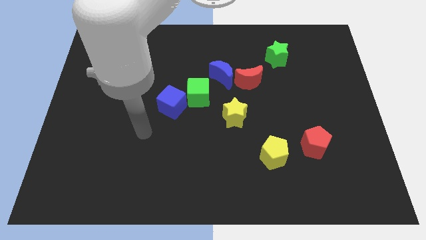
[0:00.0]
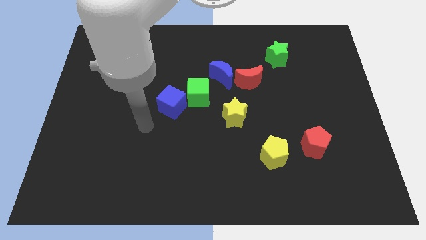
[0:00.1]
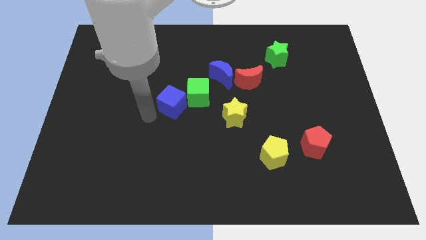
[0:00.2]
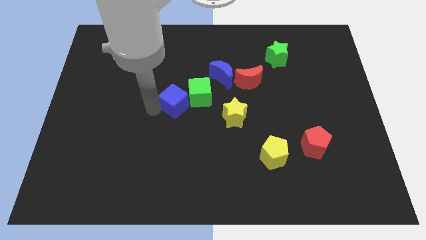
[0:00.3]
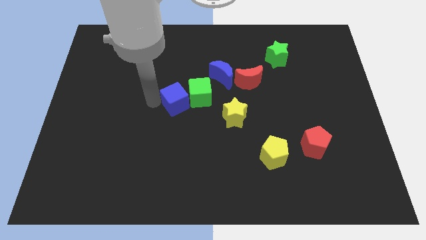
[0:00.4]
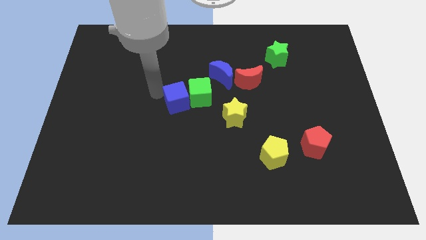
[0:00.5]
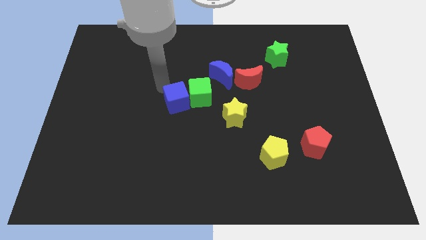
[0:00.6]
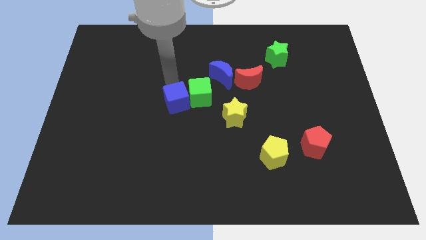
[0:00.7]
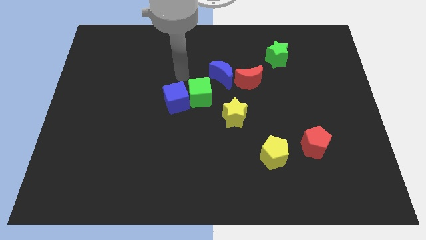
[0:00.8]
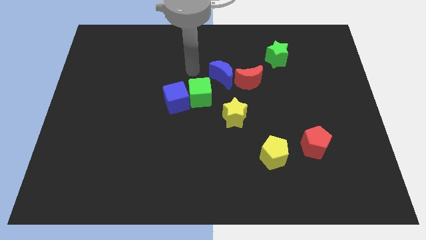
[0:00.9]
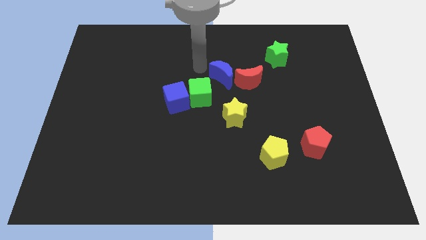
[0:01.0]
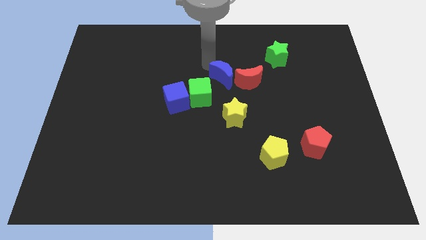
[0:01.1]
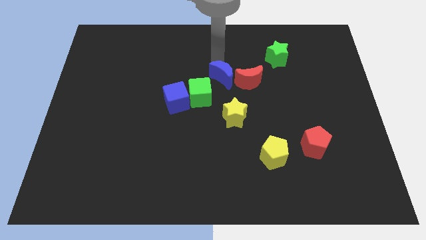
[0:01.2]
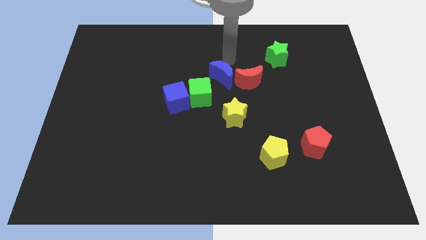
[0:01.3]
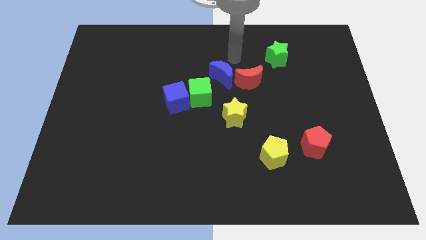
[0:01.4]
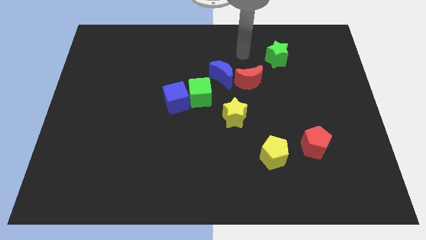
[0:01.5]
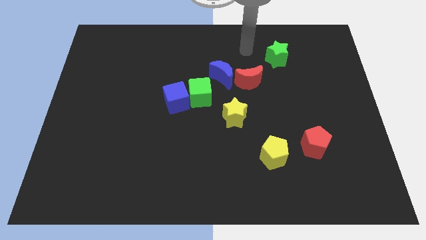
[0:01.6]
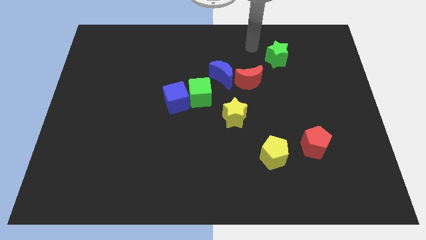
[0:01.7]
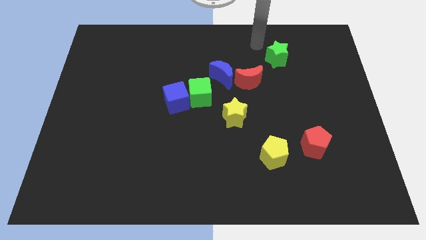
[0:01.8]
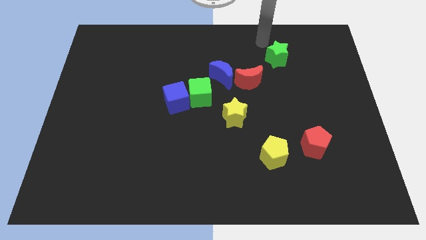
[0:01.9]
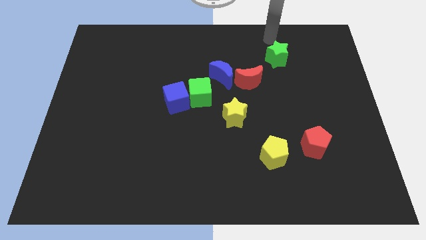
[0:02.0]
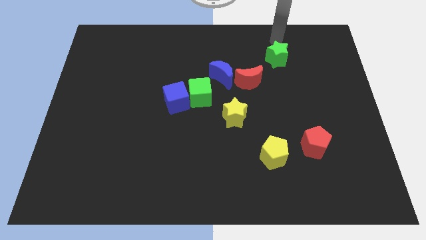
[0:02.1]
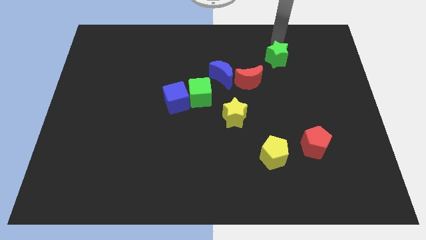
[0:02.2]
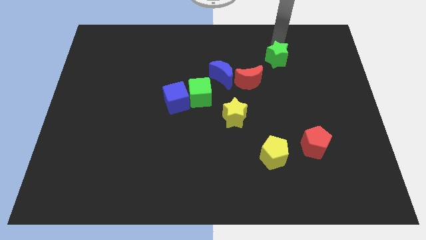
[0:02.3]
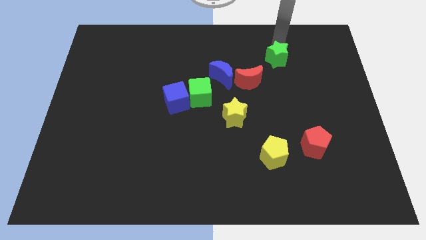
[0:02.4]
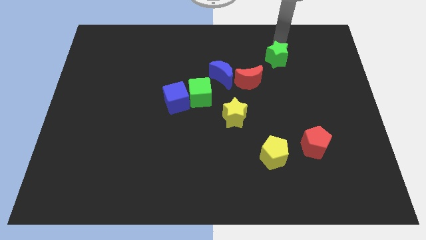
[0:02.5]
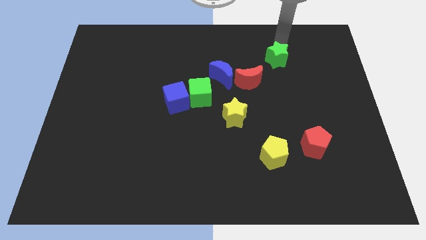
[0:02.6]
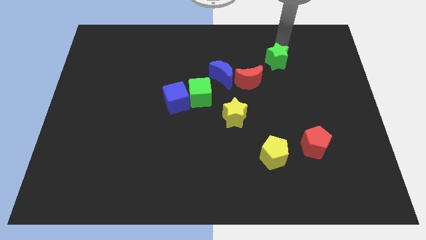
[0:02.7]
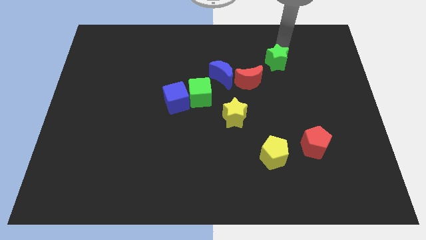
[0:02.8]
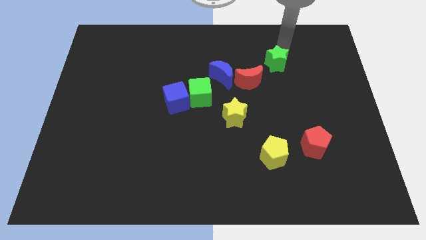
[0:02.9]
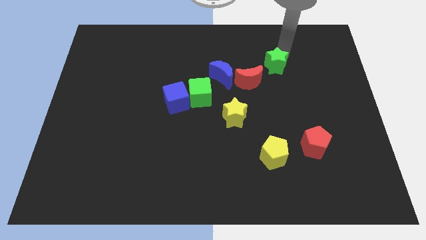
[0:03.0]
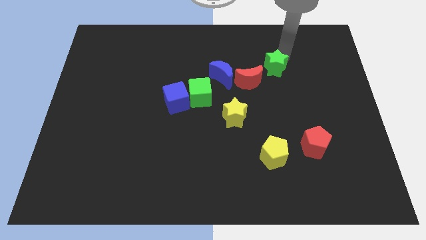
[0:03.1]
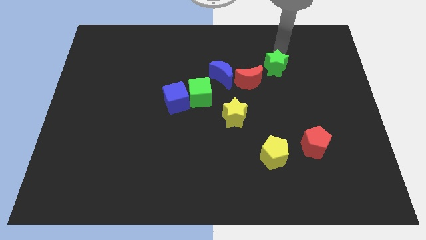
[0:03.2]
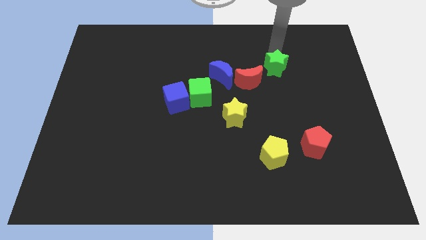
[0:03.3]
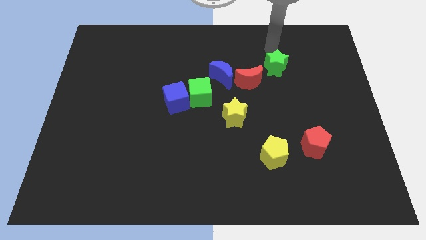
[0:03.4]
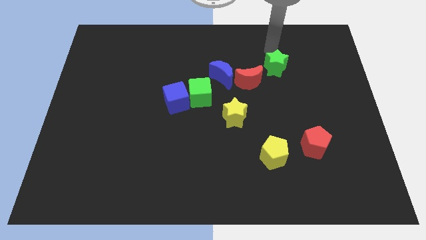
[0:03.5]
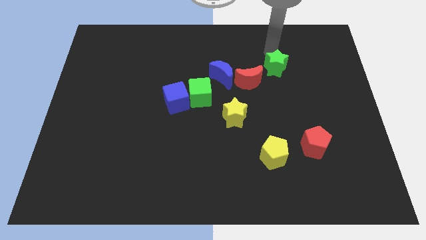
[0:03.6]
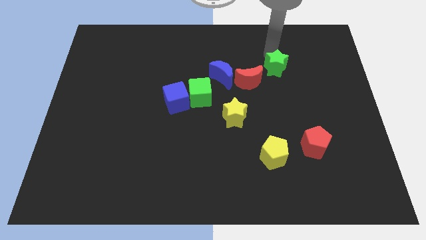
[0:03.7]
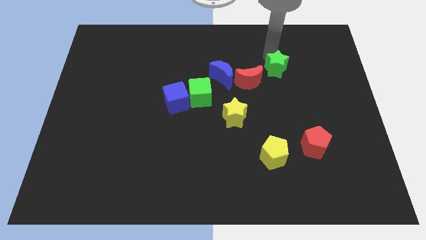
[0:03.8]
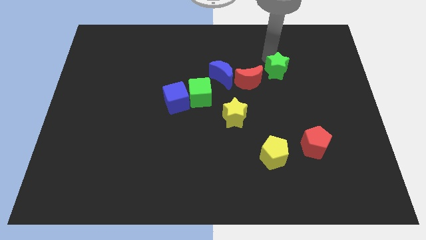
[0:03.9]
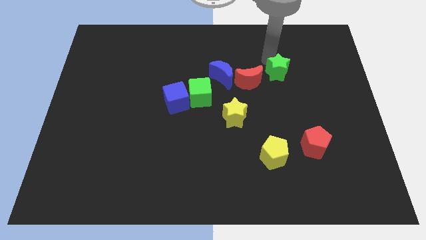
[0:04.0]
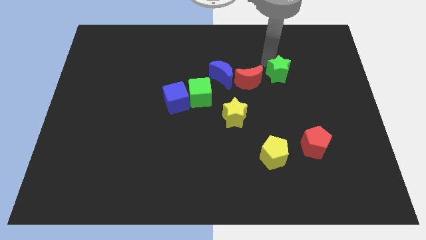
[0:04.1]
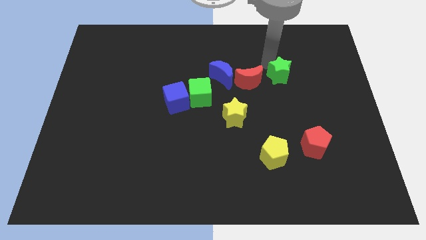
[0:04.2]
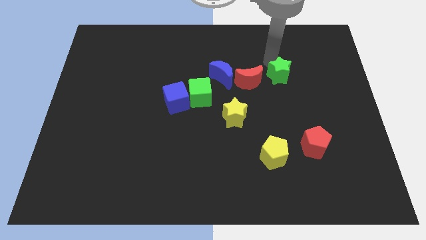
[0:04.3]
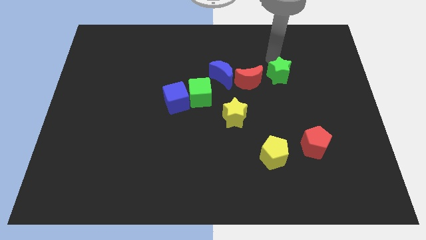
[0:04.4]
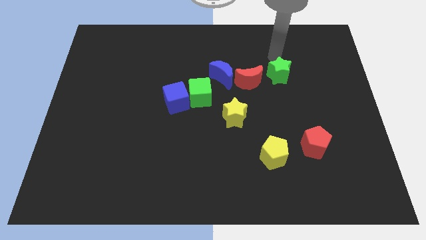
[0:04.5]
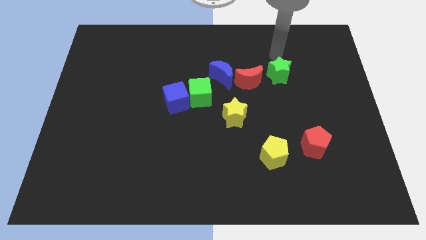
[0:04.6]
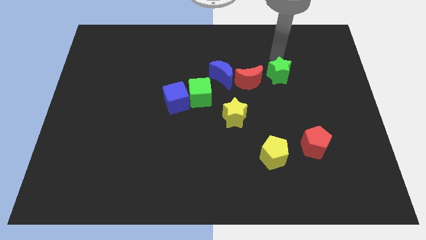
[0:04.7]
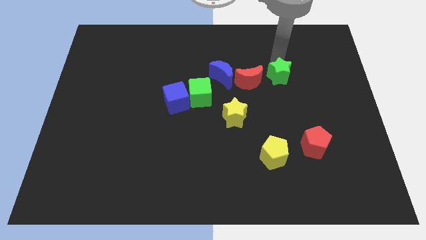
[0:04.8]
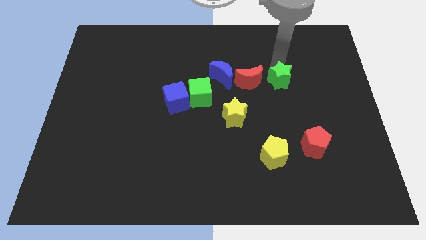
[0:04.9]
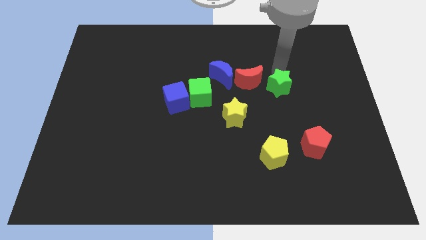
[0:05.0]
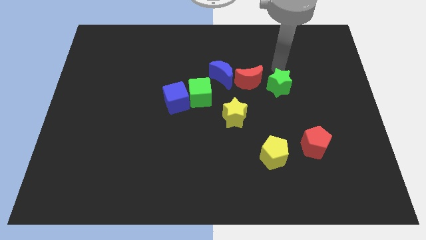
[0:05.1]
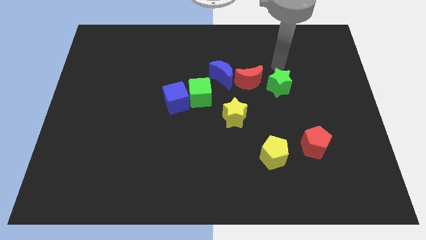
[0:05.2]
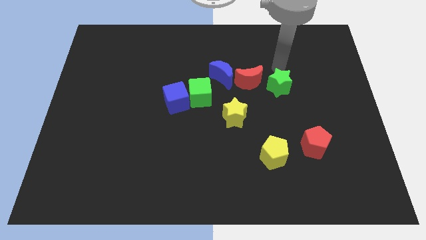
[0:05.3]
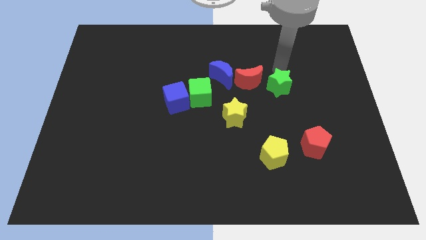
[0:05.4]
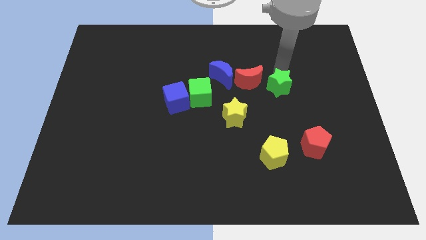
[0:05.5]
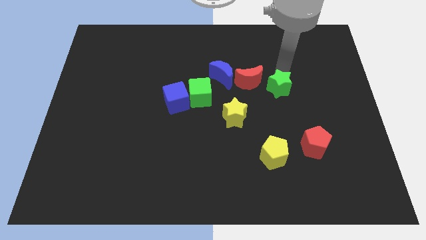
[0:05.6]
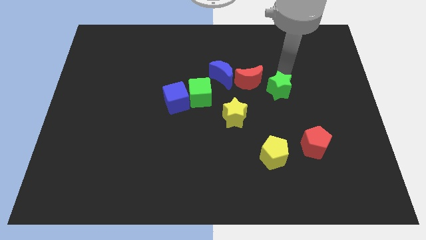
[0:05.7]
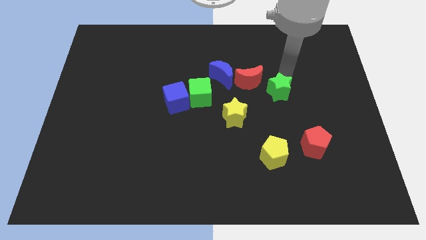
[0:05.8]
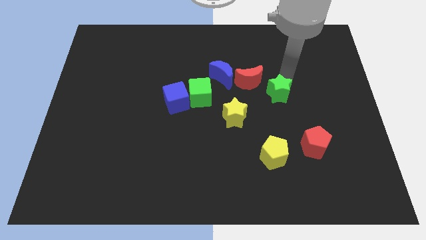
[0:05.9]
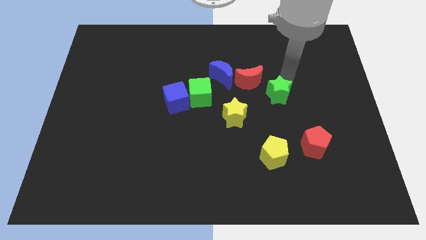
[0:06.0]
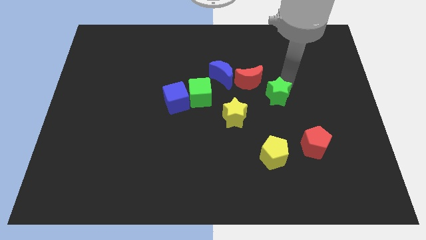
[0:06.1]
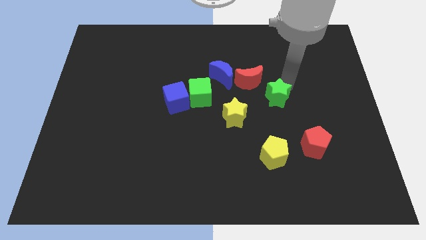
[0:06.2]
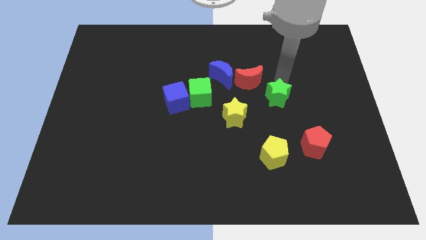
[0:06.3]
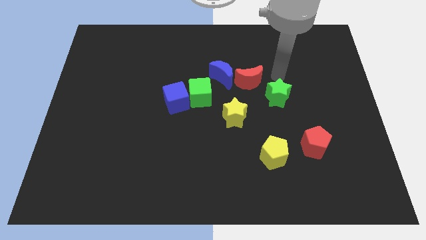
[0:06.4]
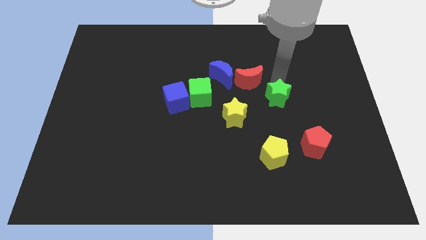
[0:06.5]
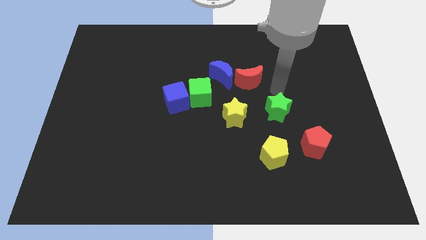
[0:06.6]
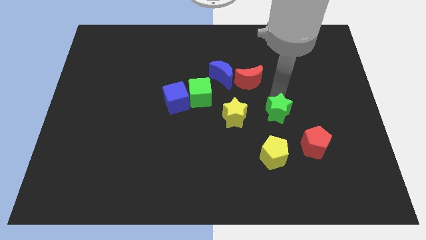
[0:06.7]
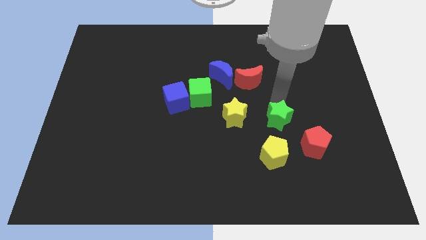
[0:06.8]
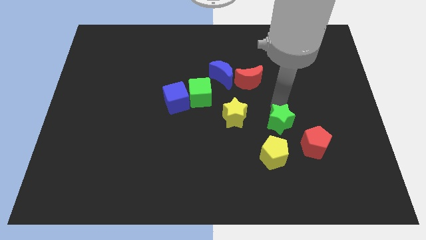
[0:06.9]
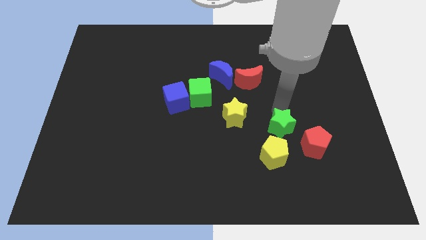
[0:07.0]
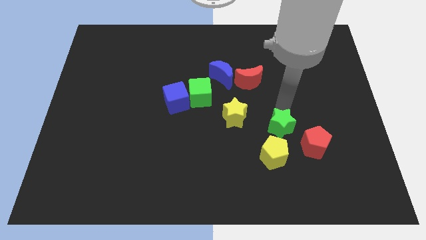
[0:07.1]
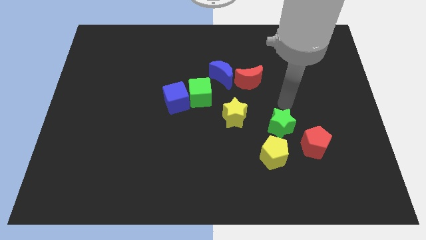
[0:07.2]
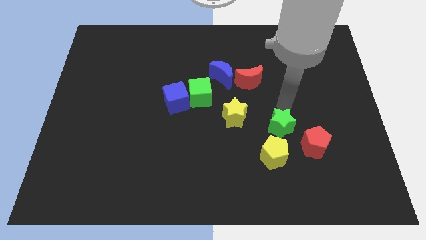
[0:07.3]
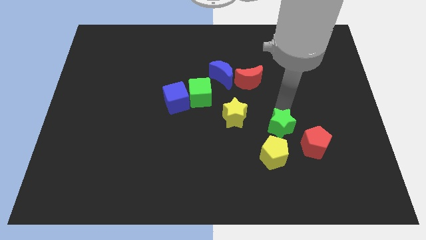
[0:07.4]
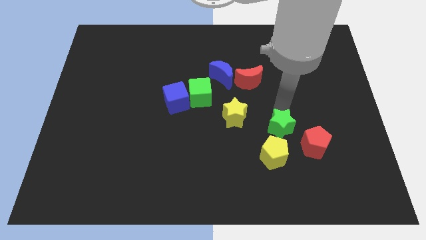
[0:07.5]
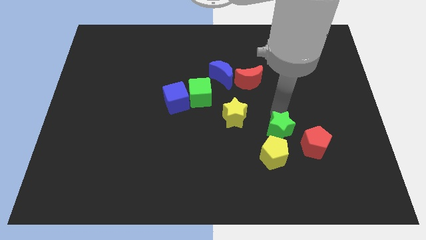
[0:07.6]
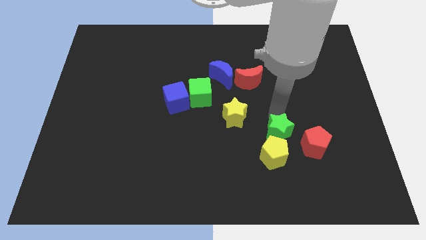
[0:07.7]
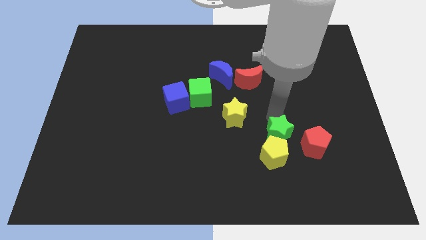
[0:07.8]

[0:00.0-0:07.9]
slide the green star next to the yellow pentagon
